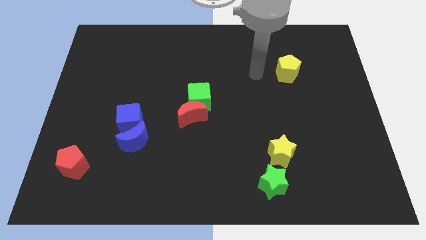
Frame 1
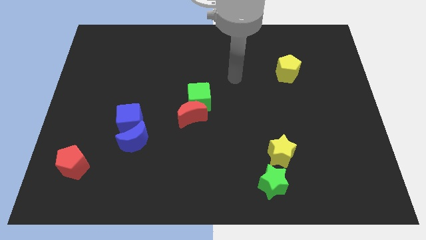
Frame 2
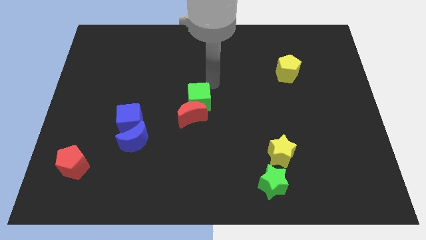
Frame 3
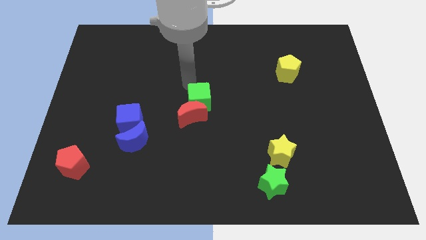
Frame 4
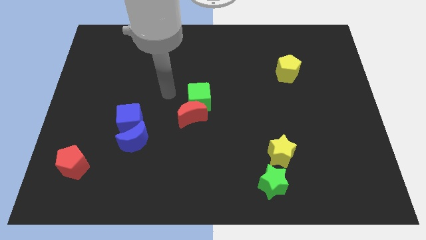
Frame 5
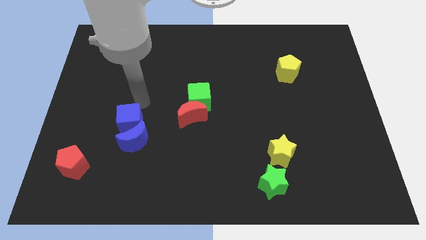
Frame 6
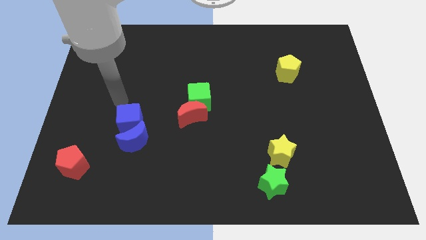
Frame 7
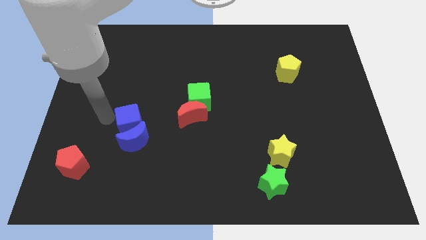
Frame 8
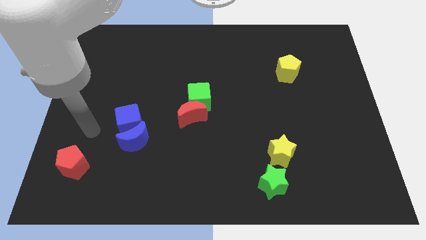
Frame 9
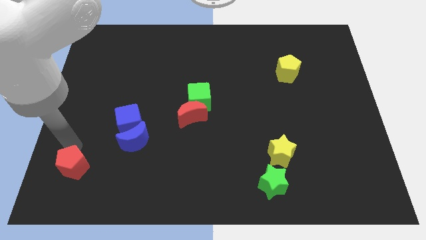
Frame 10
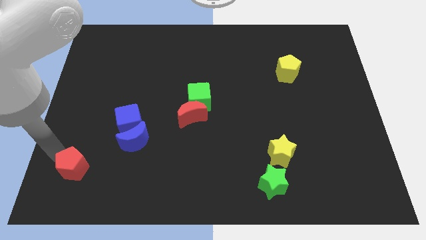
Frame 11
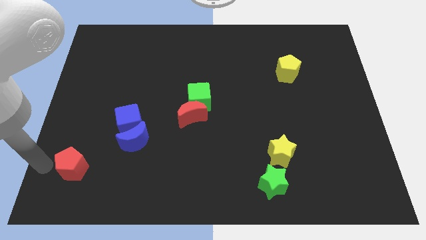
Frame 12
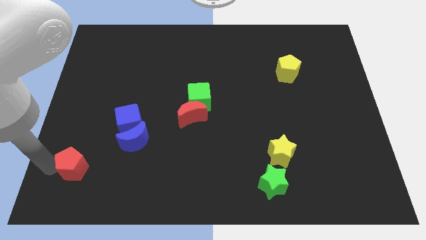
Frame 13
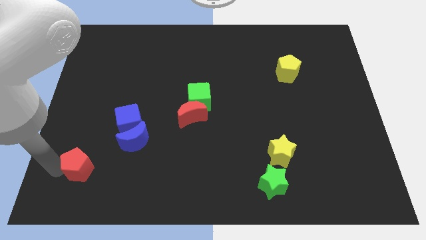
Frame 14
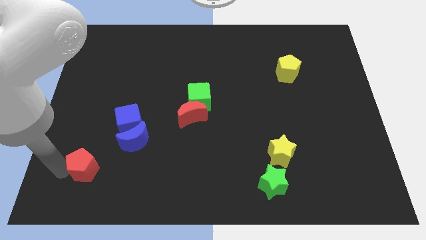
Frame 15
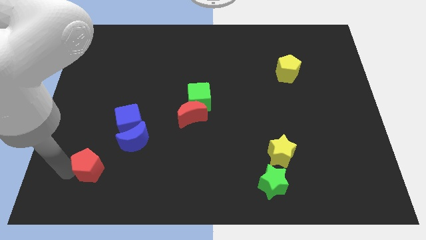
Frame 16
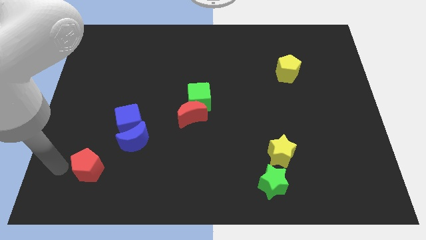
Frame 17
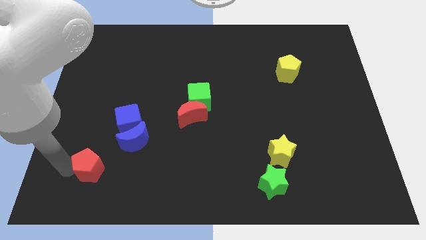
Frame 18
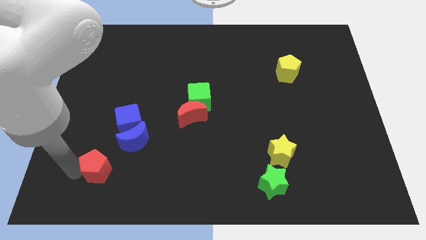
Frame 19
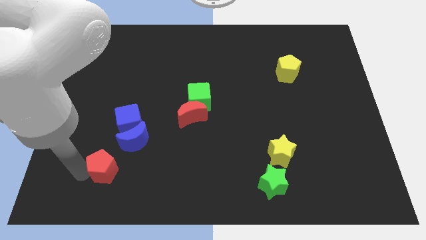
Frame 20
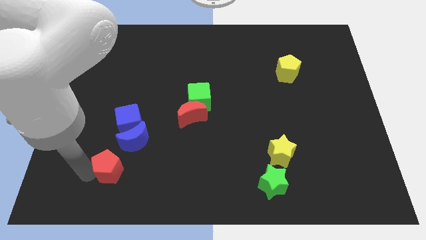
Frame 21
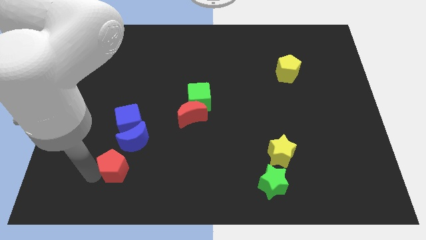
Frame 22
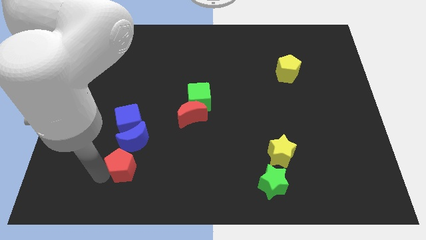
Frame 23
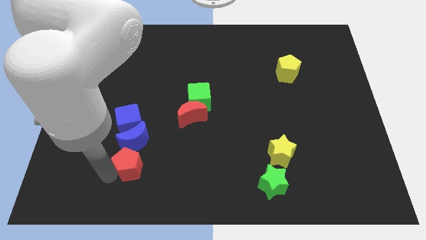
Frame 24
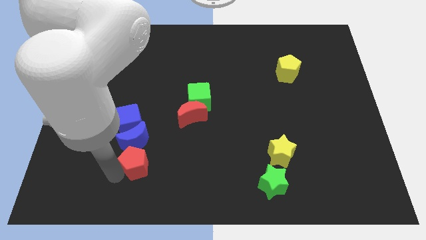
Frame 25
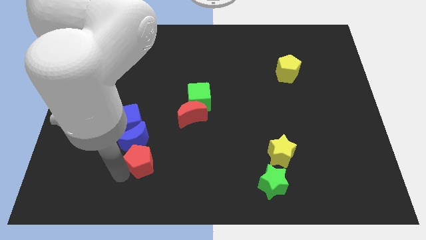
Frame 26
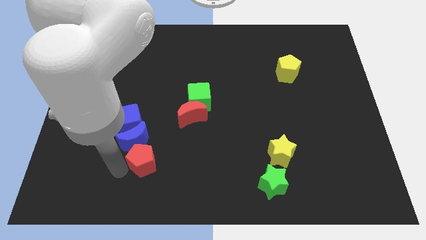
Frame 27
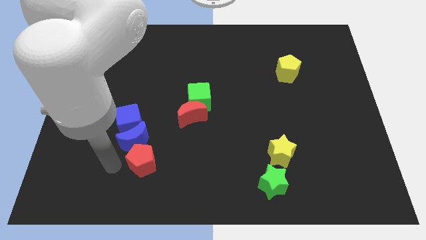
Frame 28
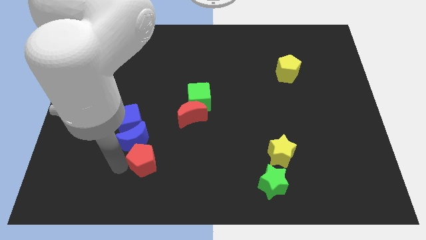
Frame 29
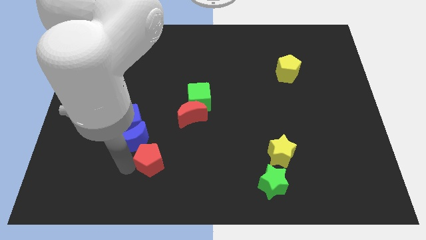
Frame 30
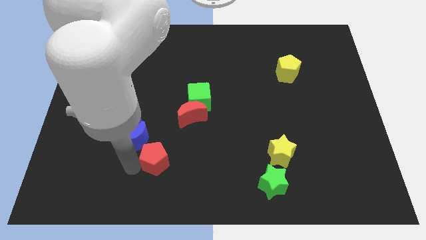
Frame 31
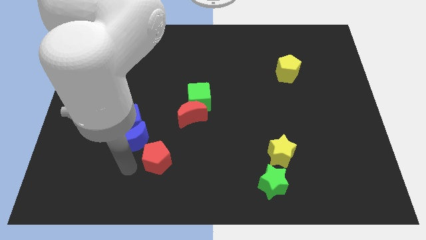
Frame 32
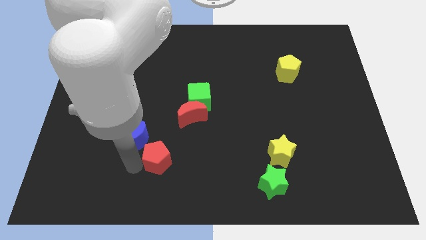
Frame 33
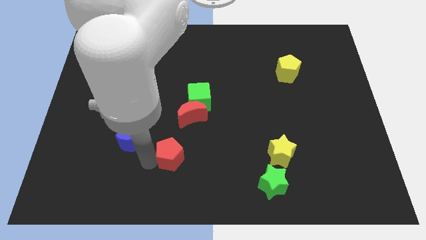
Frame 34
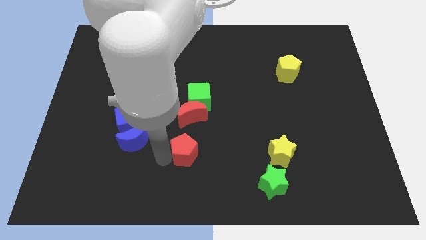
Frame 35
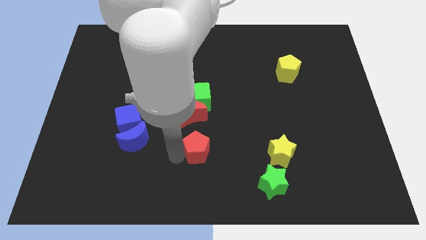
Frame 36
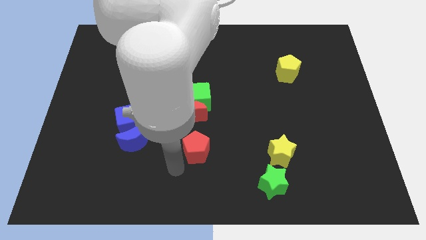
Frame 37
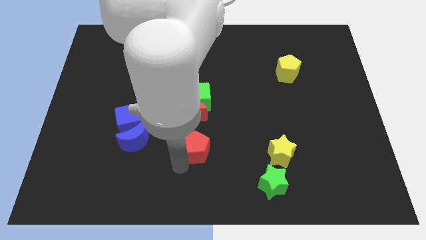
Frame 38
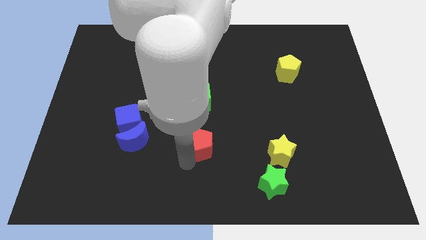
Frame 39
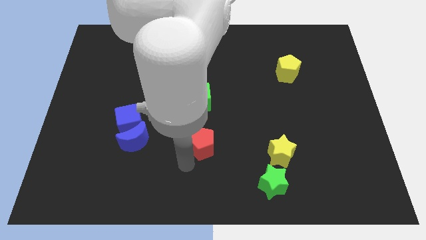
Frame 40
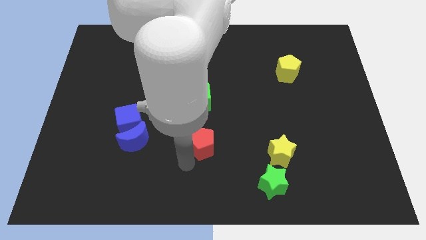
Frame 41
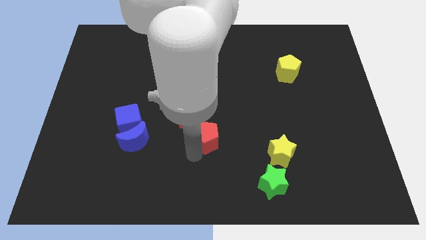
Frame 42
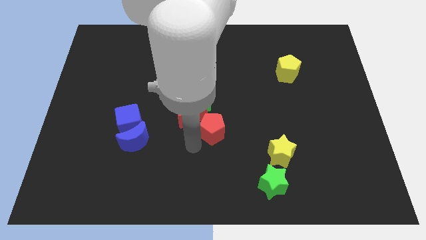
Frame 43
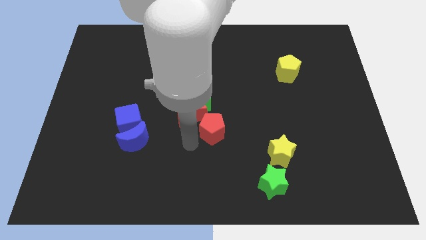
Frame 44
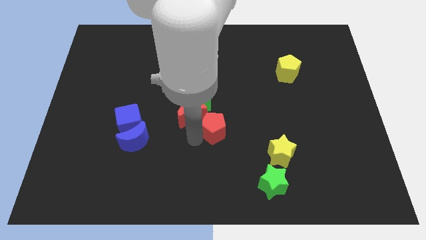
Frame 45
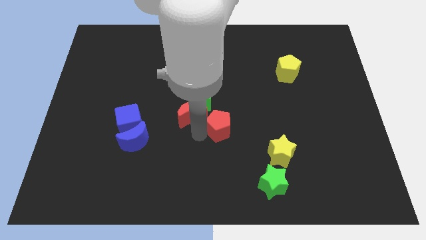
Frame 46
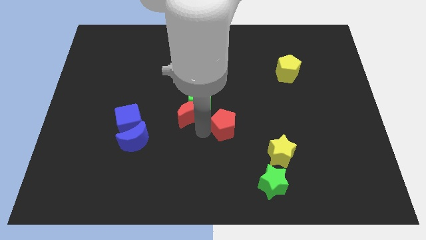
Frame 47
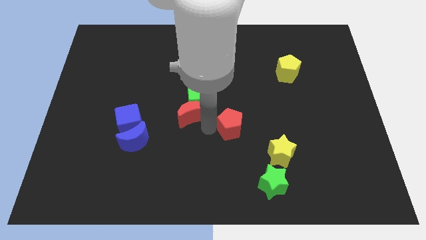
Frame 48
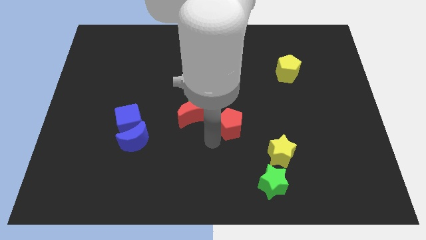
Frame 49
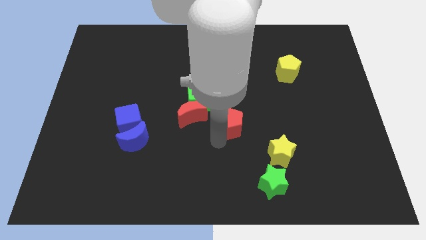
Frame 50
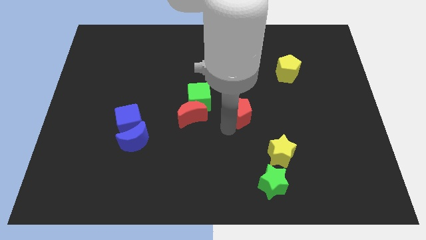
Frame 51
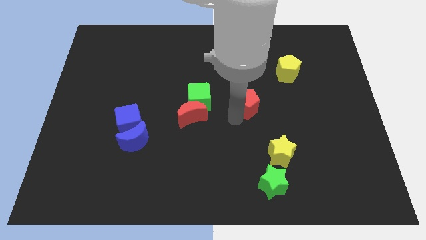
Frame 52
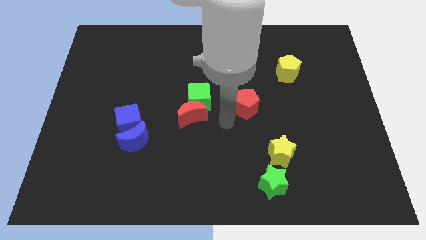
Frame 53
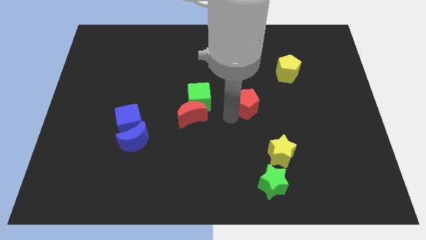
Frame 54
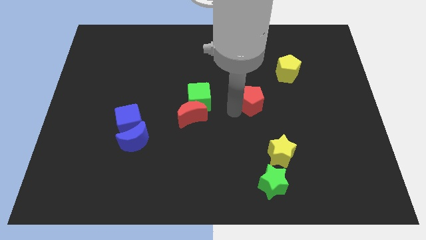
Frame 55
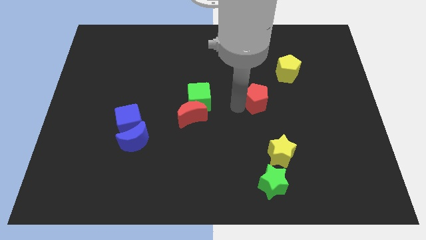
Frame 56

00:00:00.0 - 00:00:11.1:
move the red pentagon to the bottom left of the yellow pentagon

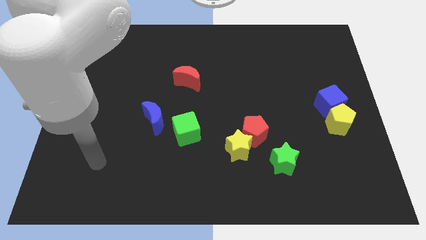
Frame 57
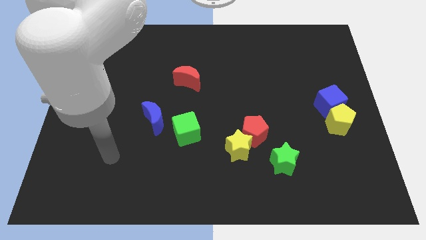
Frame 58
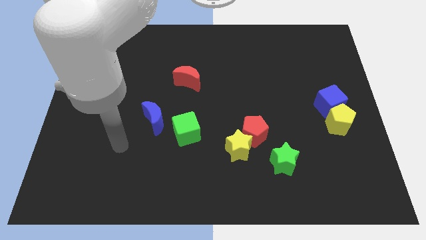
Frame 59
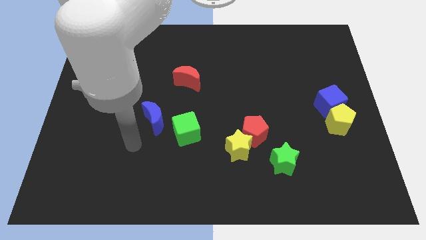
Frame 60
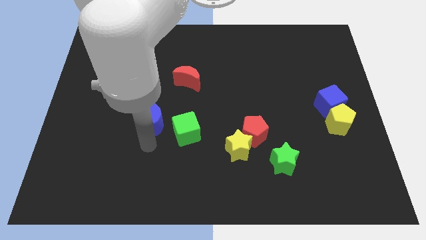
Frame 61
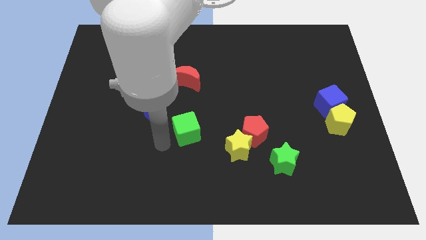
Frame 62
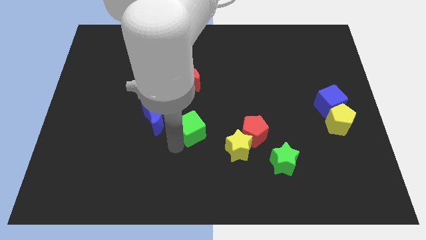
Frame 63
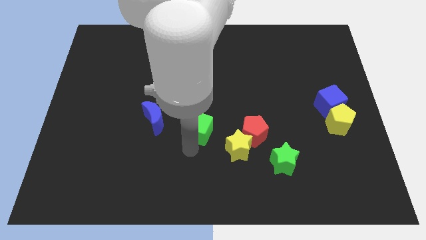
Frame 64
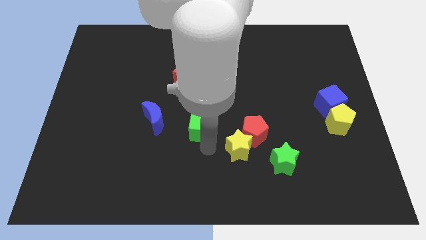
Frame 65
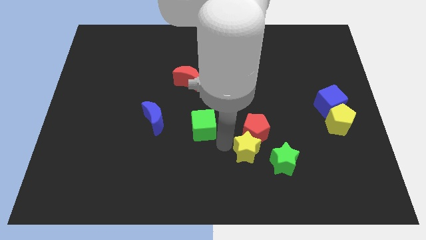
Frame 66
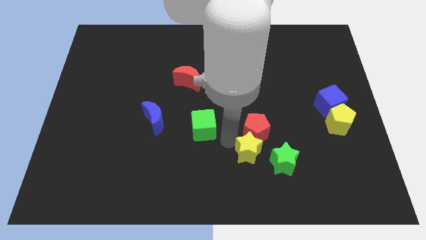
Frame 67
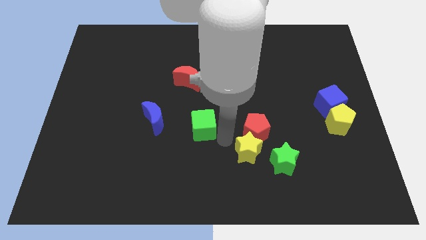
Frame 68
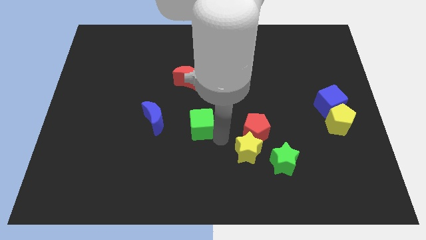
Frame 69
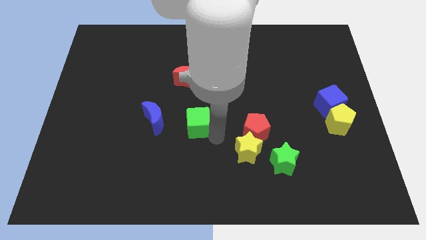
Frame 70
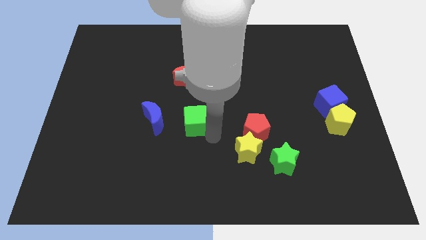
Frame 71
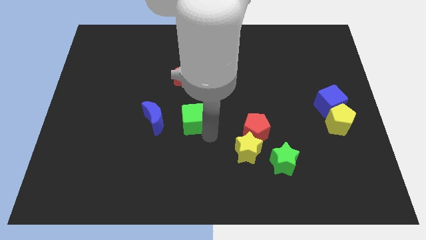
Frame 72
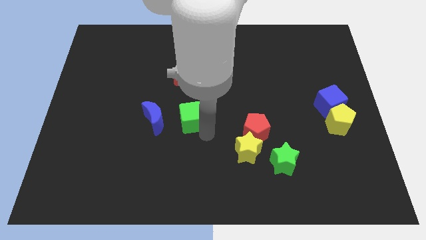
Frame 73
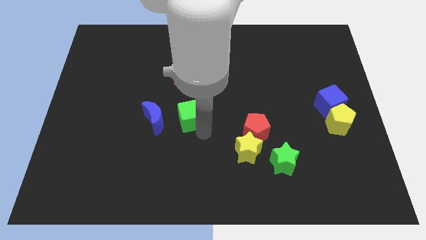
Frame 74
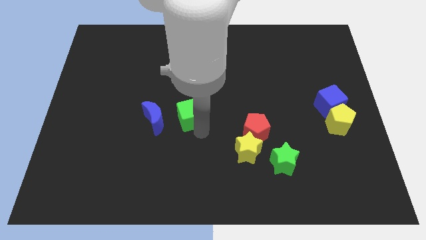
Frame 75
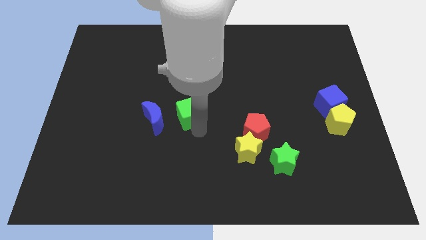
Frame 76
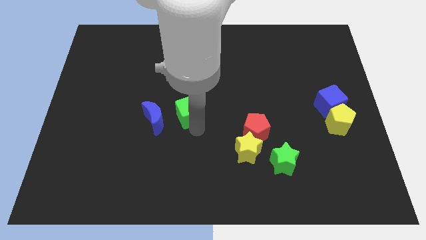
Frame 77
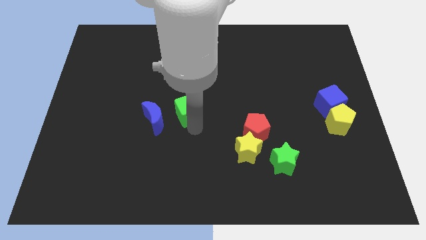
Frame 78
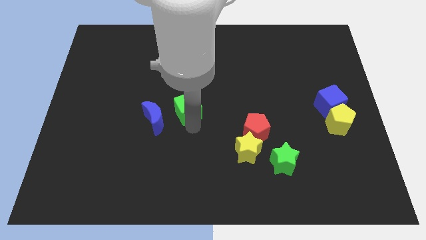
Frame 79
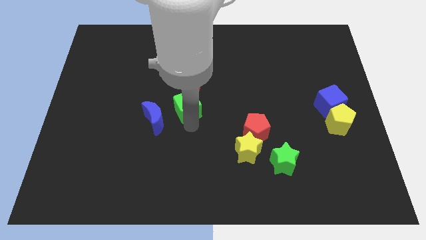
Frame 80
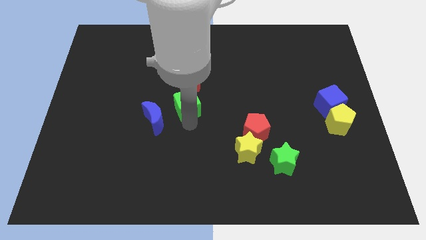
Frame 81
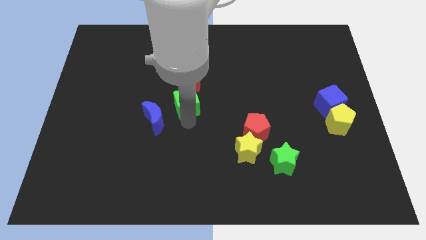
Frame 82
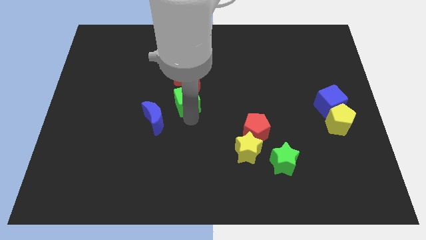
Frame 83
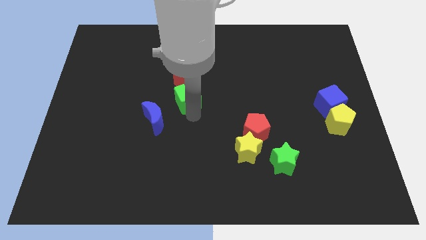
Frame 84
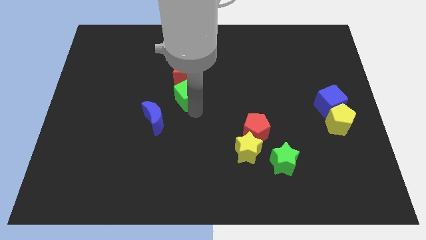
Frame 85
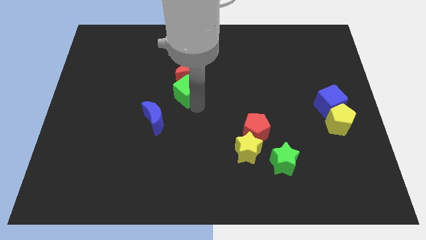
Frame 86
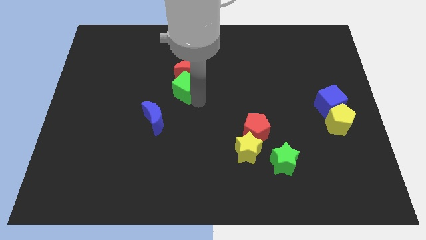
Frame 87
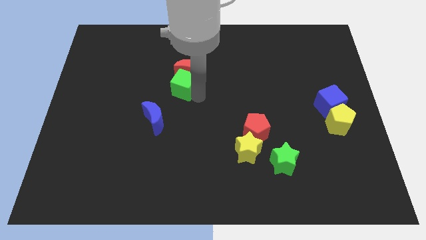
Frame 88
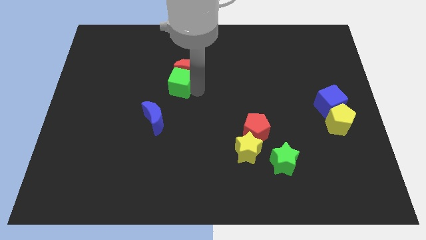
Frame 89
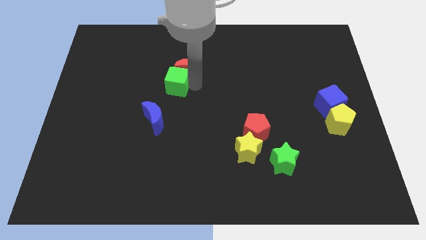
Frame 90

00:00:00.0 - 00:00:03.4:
put the green cube to the left of the red moon
